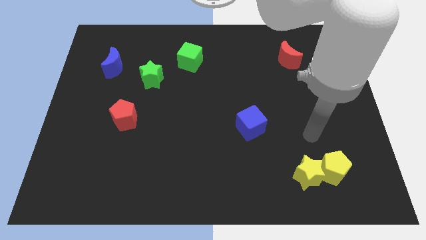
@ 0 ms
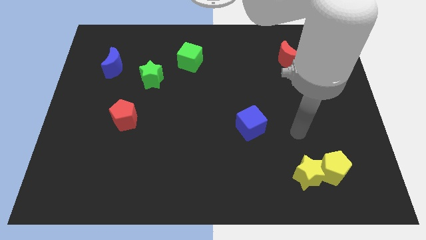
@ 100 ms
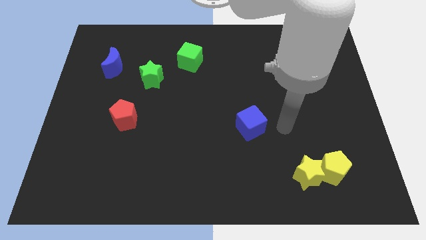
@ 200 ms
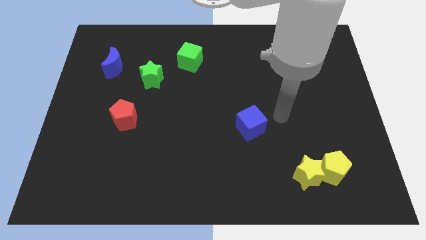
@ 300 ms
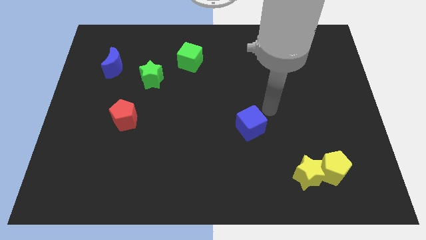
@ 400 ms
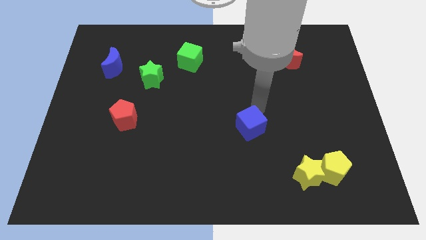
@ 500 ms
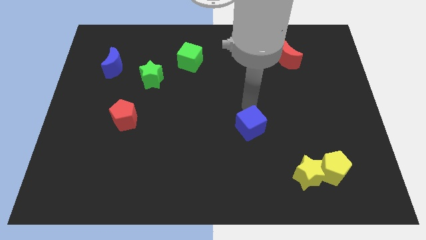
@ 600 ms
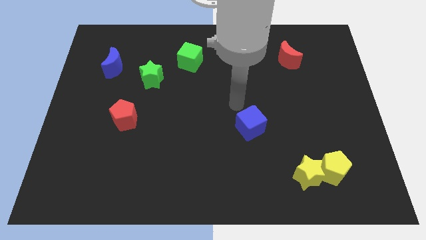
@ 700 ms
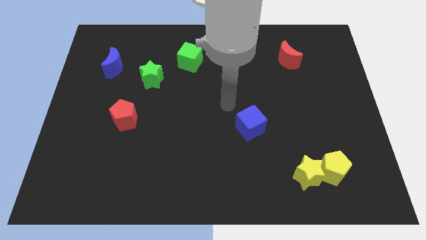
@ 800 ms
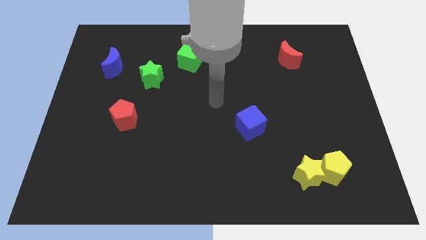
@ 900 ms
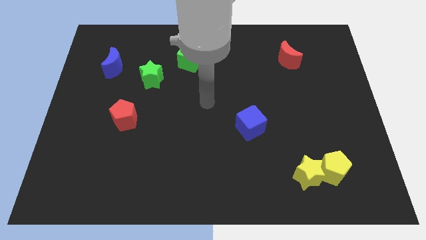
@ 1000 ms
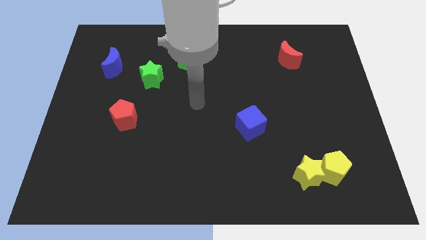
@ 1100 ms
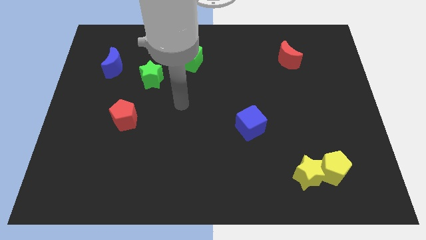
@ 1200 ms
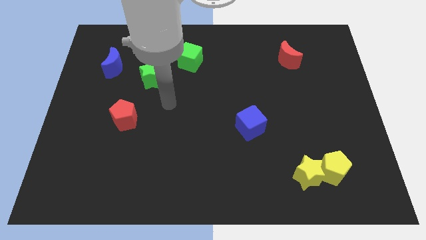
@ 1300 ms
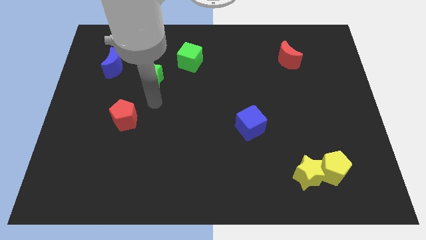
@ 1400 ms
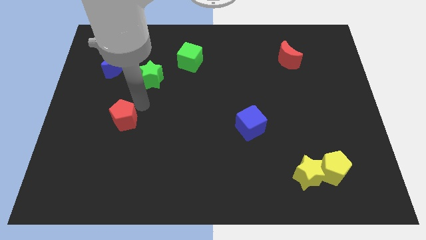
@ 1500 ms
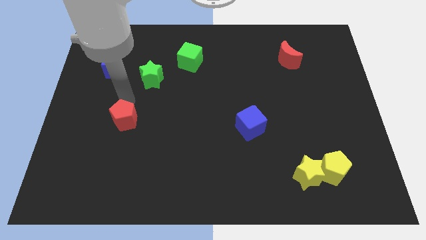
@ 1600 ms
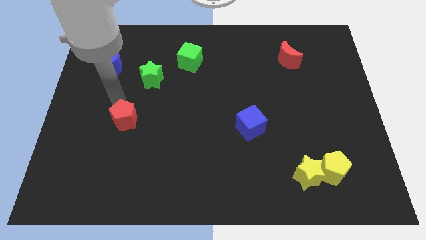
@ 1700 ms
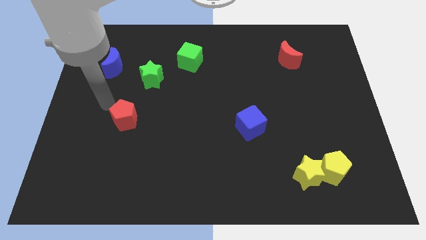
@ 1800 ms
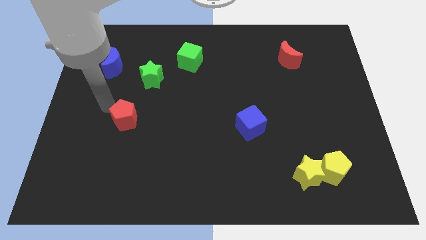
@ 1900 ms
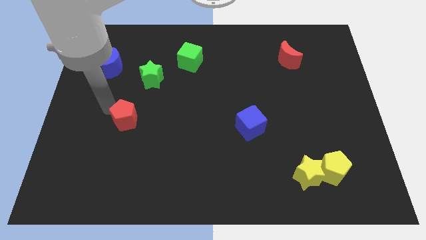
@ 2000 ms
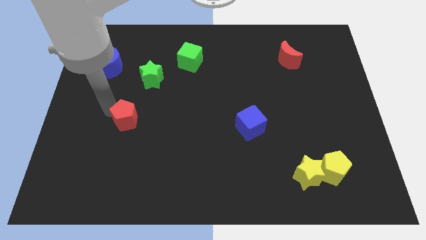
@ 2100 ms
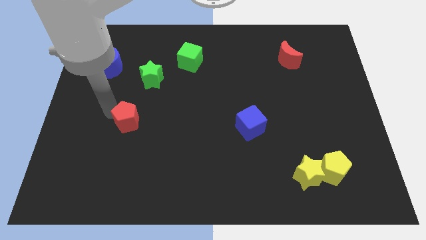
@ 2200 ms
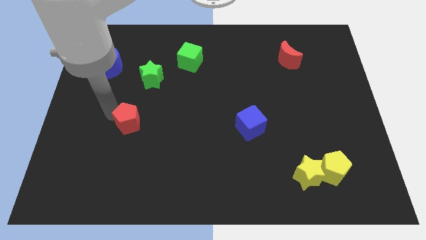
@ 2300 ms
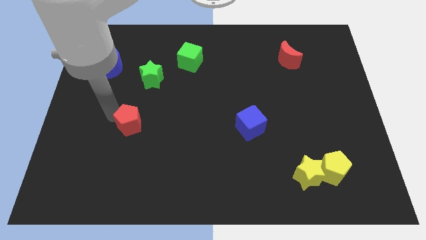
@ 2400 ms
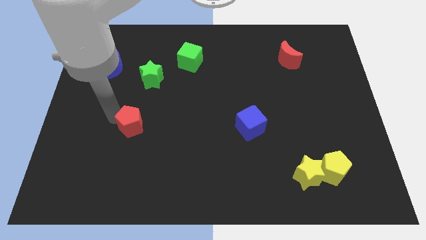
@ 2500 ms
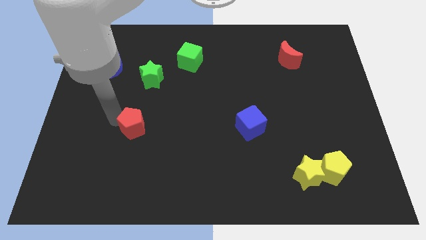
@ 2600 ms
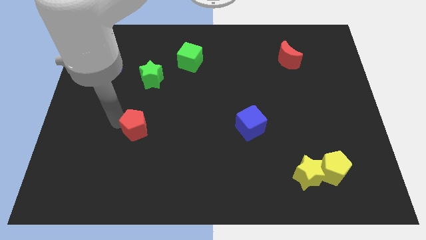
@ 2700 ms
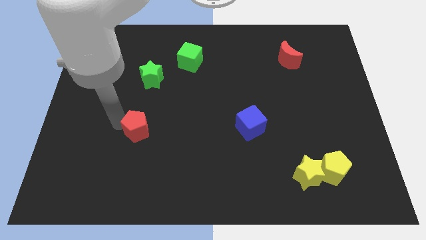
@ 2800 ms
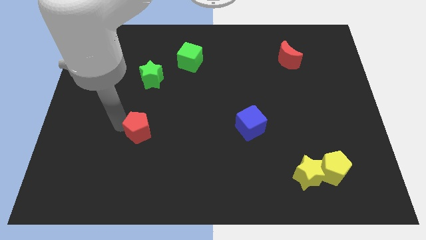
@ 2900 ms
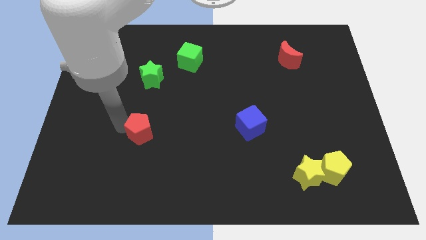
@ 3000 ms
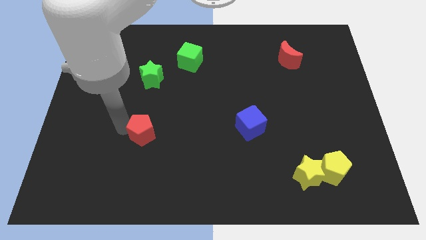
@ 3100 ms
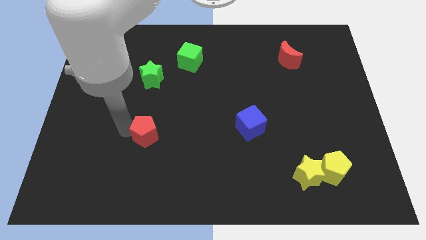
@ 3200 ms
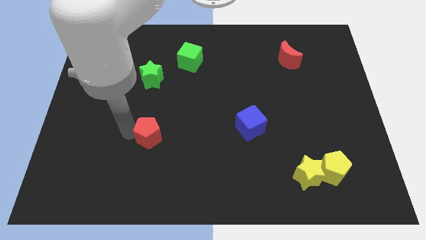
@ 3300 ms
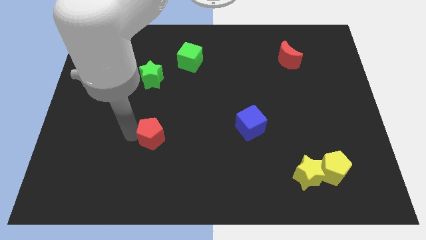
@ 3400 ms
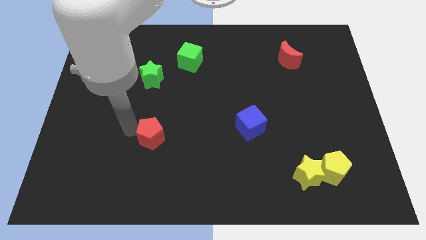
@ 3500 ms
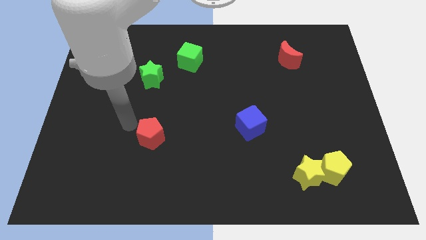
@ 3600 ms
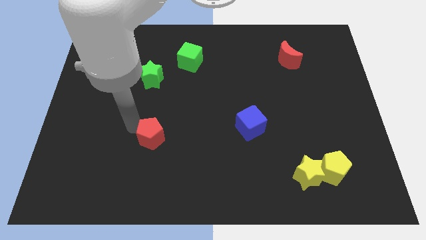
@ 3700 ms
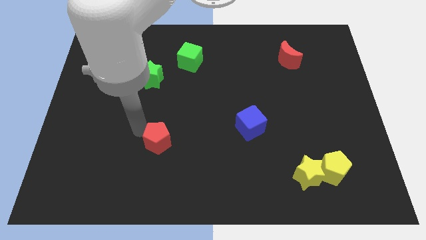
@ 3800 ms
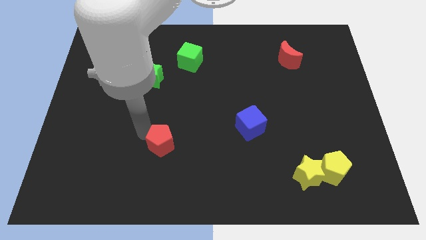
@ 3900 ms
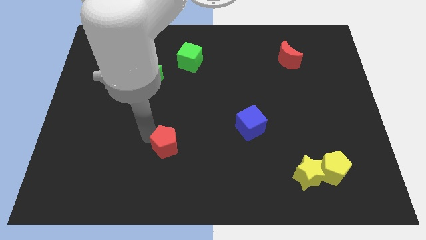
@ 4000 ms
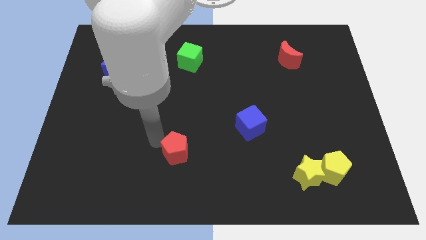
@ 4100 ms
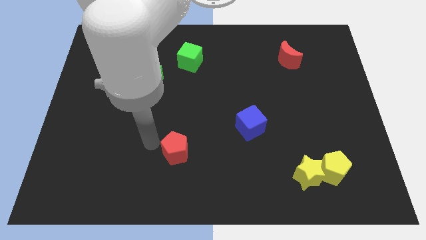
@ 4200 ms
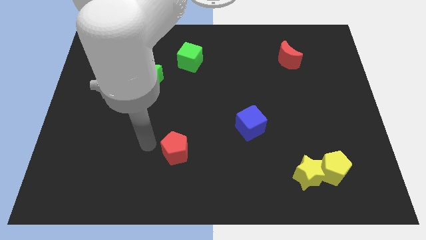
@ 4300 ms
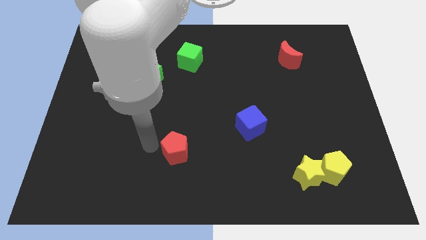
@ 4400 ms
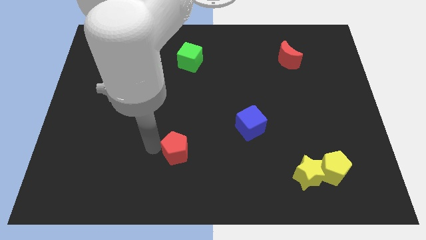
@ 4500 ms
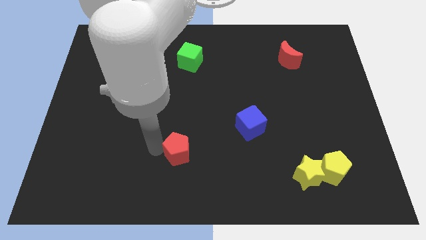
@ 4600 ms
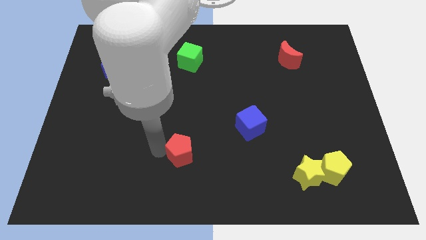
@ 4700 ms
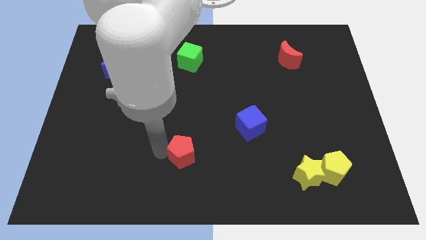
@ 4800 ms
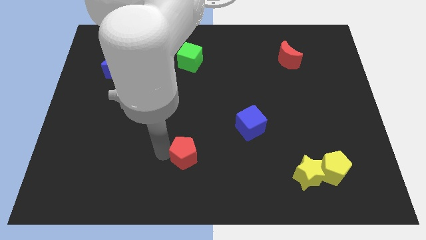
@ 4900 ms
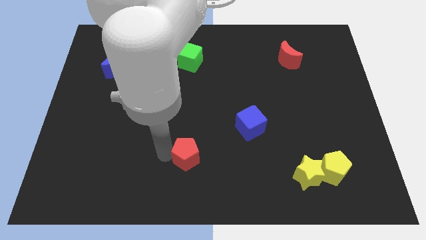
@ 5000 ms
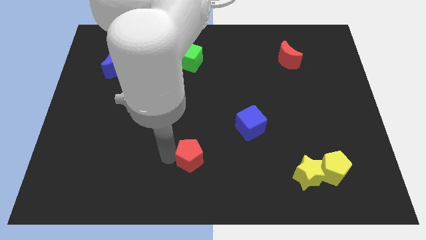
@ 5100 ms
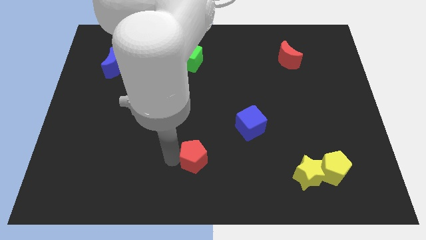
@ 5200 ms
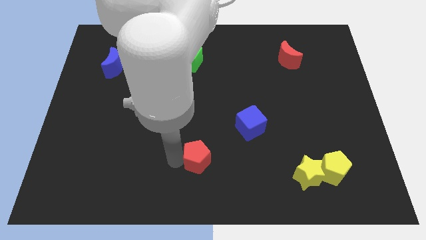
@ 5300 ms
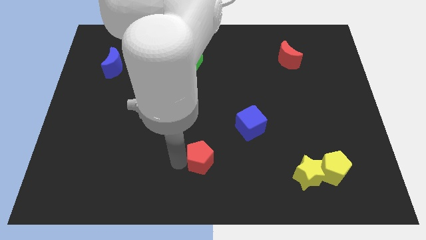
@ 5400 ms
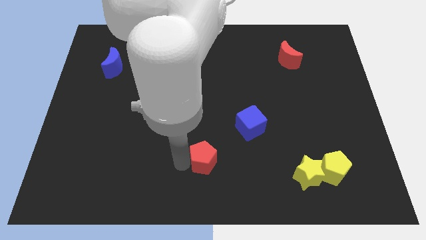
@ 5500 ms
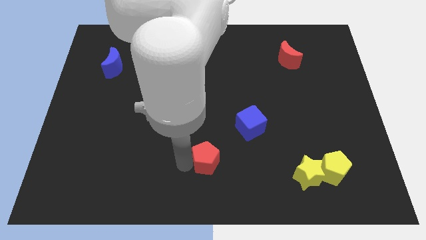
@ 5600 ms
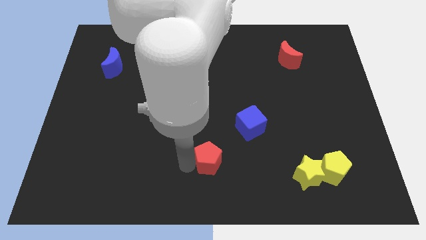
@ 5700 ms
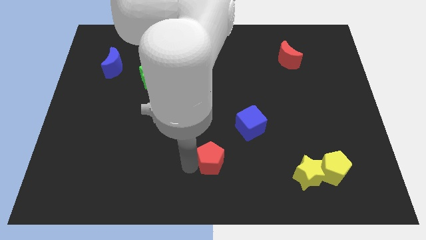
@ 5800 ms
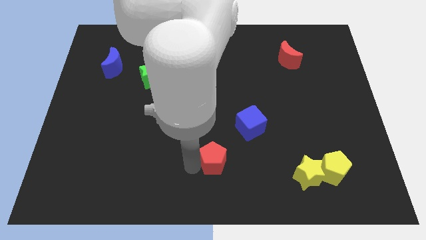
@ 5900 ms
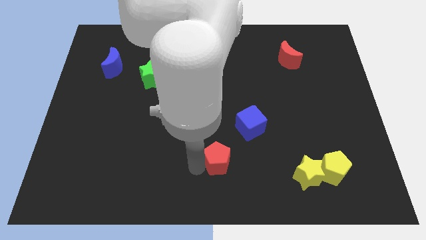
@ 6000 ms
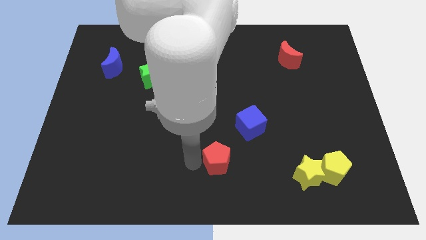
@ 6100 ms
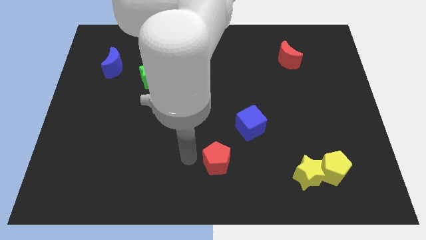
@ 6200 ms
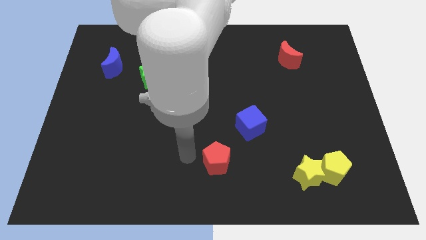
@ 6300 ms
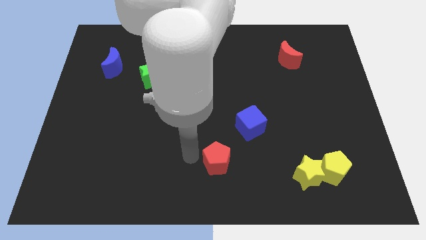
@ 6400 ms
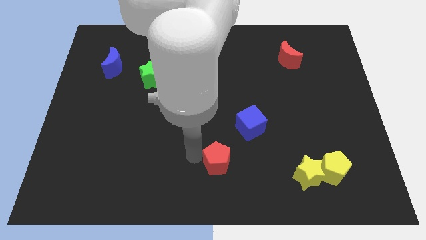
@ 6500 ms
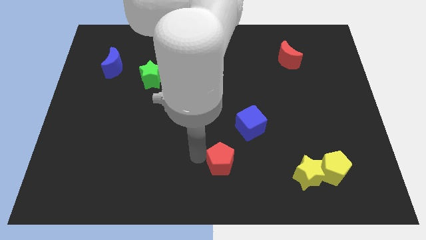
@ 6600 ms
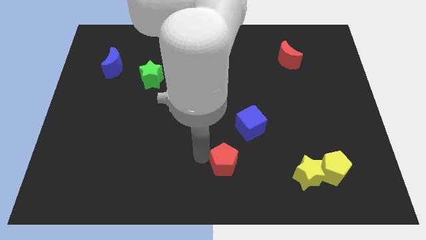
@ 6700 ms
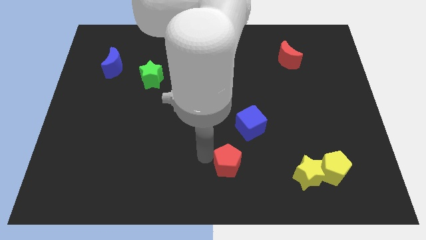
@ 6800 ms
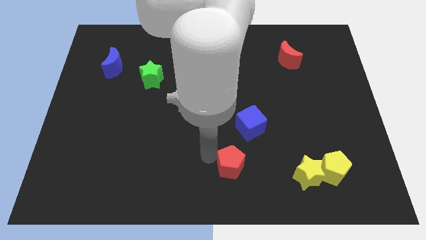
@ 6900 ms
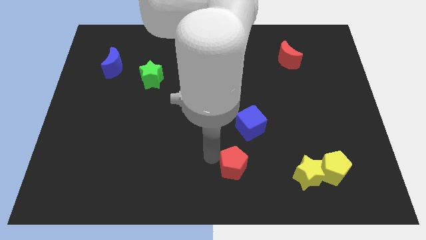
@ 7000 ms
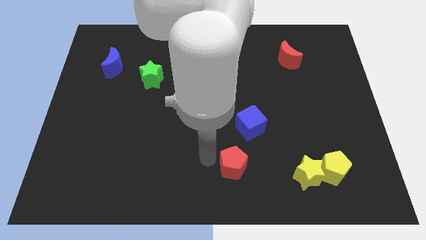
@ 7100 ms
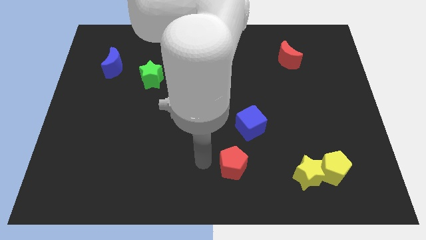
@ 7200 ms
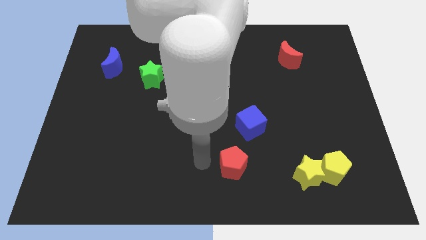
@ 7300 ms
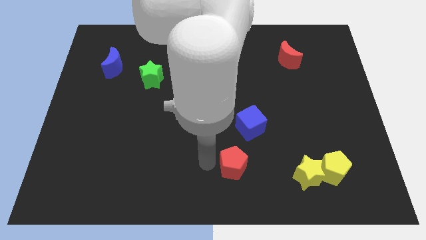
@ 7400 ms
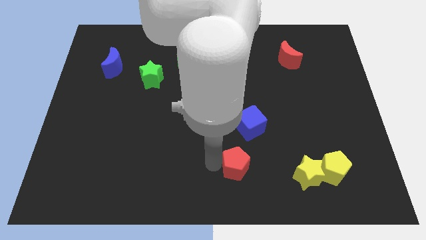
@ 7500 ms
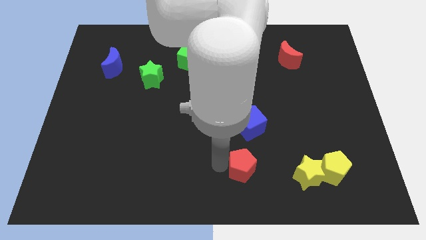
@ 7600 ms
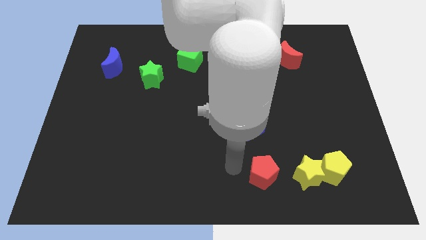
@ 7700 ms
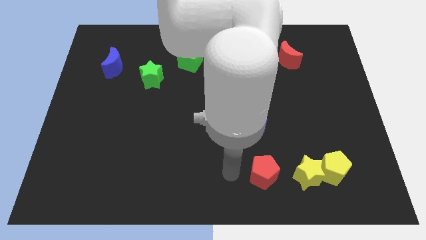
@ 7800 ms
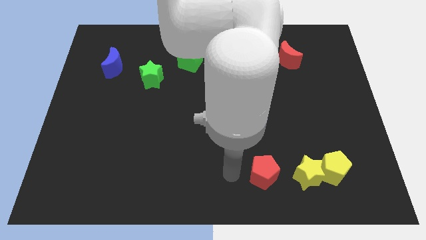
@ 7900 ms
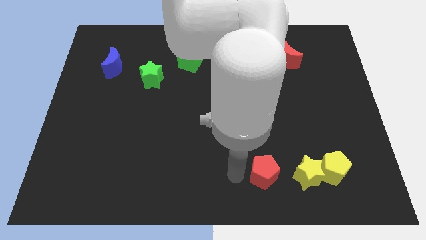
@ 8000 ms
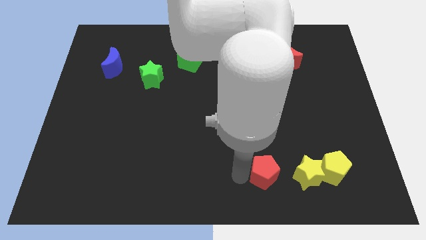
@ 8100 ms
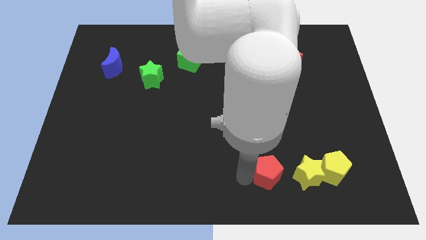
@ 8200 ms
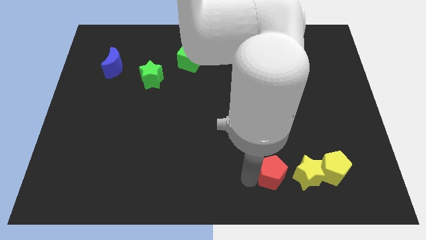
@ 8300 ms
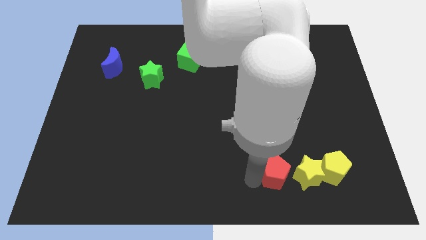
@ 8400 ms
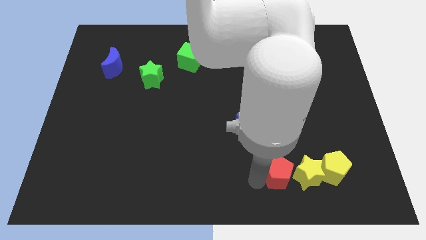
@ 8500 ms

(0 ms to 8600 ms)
slide the red pentagon next to the yellow star
